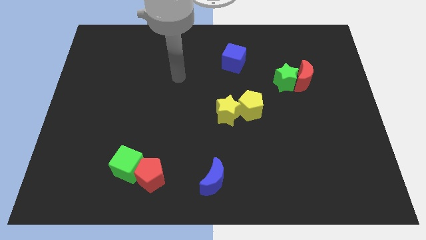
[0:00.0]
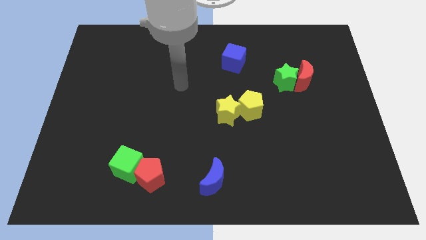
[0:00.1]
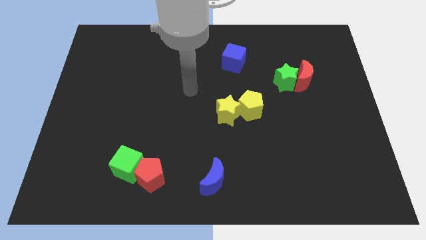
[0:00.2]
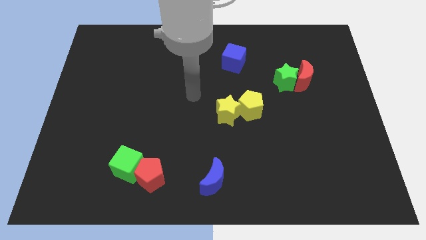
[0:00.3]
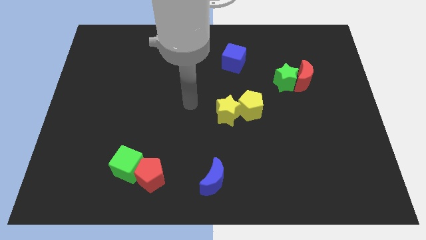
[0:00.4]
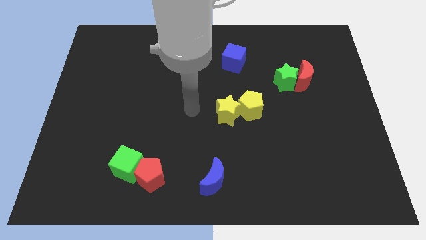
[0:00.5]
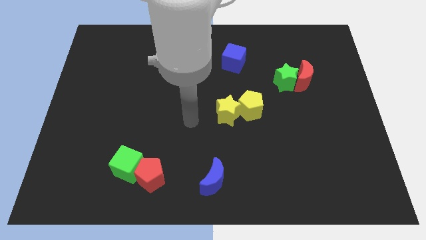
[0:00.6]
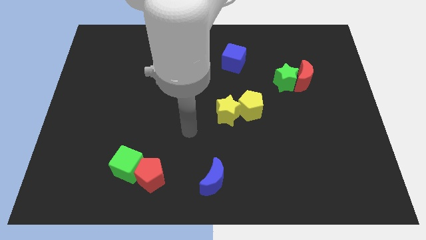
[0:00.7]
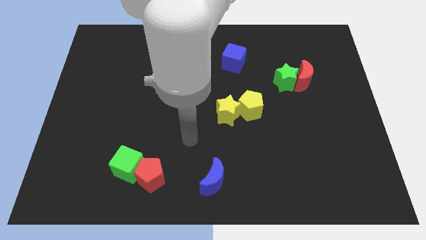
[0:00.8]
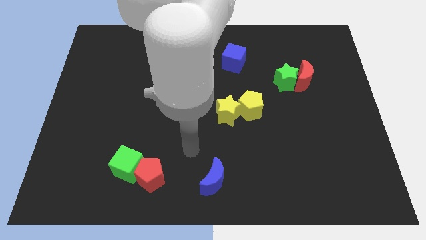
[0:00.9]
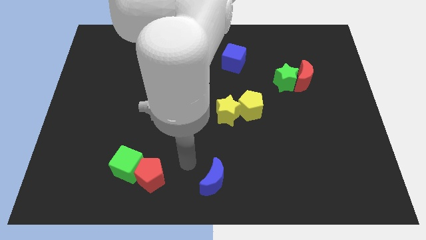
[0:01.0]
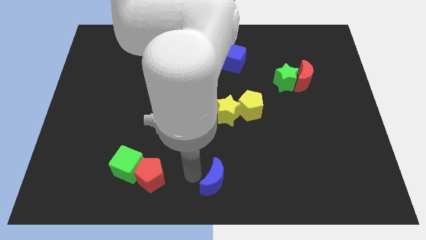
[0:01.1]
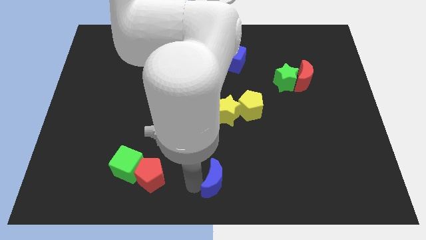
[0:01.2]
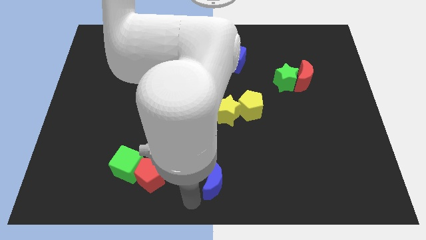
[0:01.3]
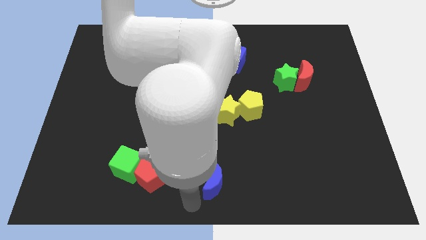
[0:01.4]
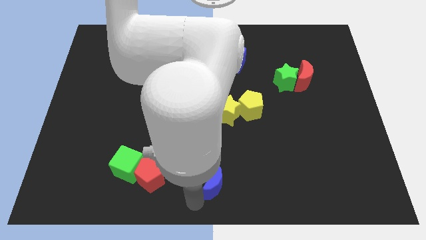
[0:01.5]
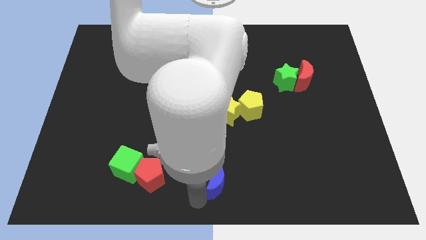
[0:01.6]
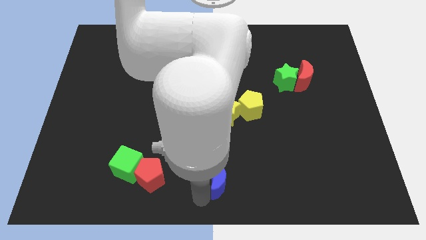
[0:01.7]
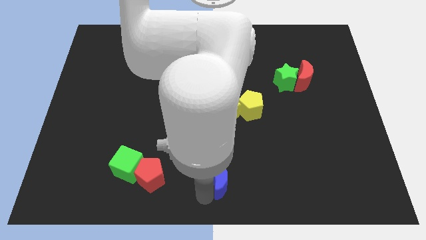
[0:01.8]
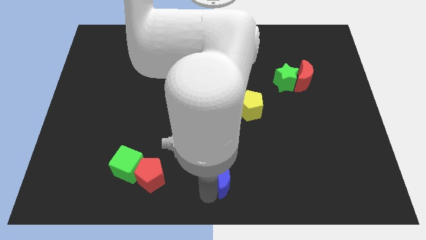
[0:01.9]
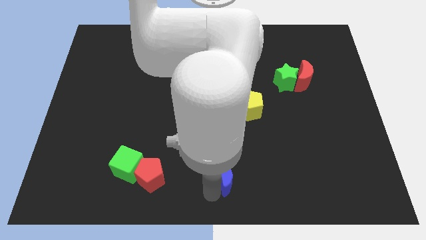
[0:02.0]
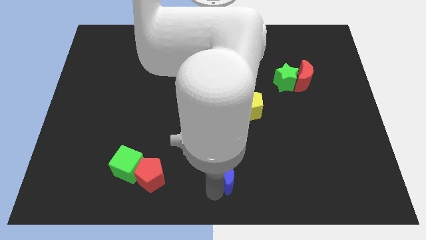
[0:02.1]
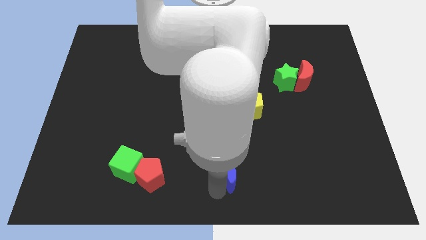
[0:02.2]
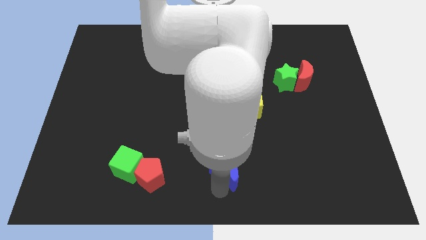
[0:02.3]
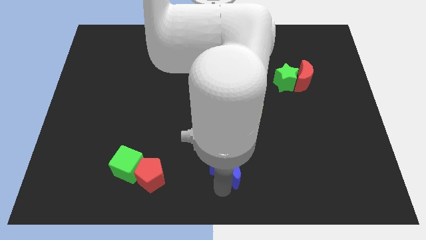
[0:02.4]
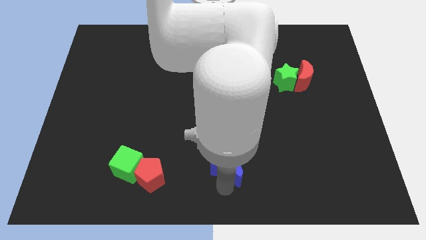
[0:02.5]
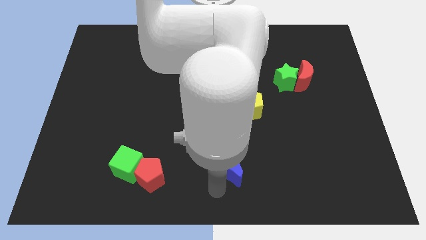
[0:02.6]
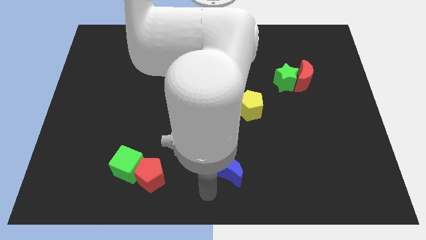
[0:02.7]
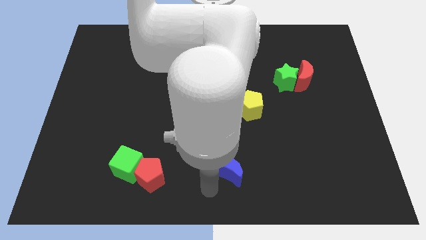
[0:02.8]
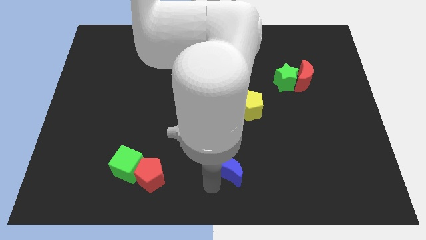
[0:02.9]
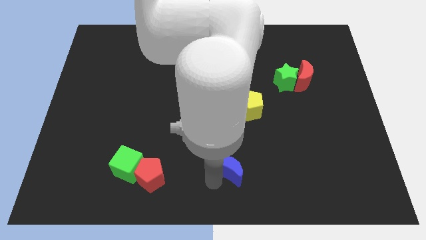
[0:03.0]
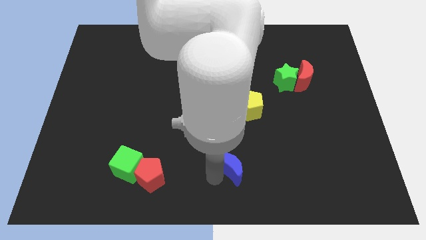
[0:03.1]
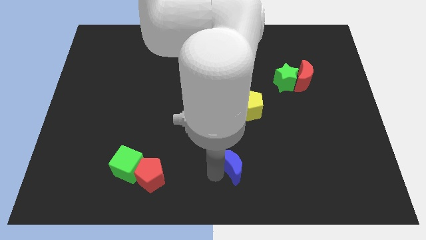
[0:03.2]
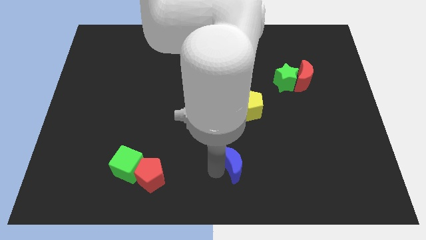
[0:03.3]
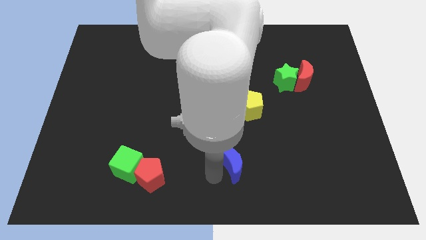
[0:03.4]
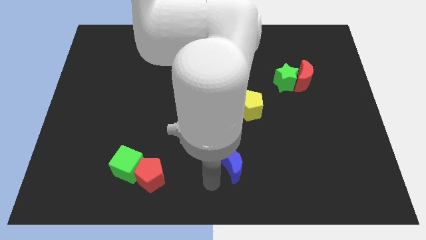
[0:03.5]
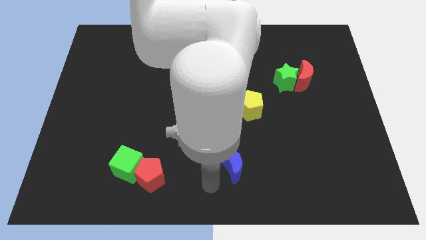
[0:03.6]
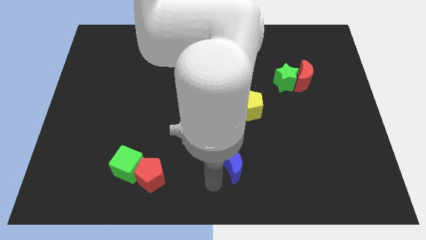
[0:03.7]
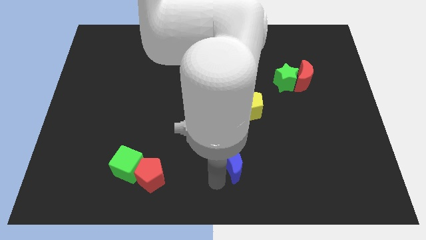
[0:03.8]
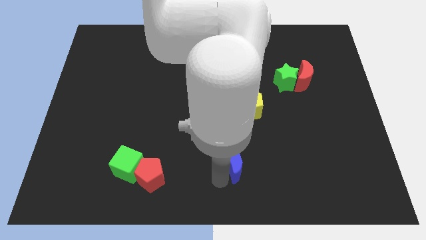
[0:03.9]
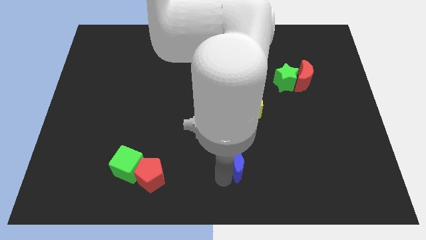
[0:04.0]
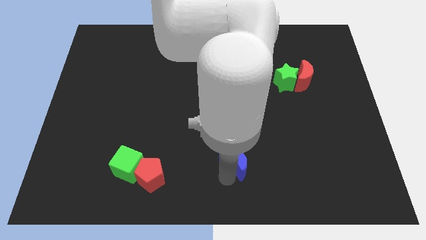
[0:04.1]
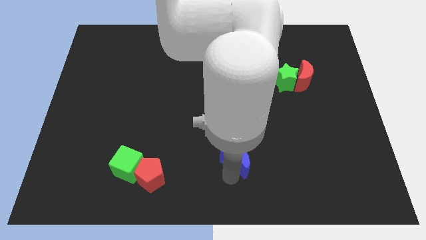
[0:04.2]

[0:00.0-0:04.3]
slide the blue moon below the yellow pentagon

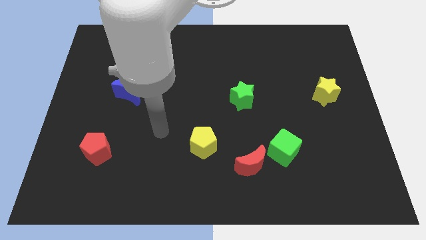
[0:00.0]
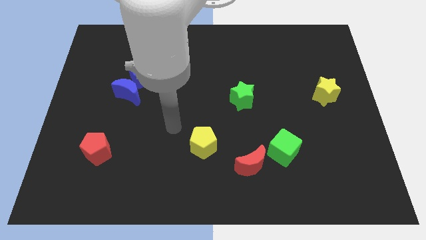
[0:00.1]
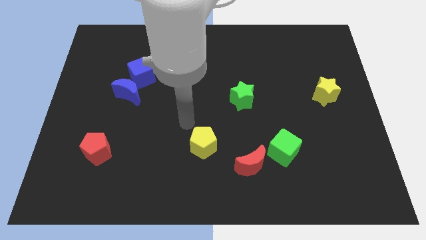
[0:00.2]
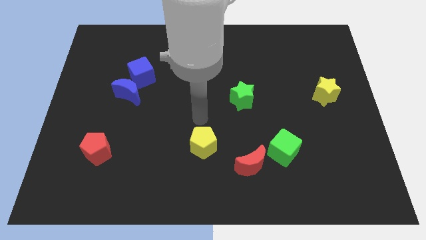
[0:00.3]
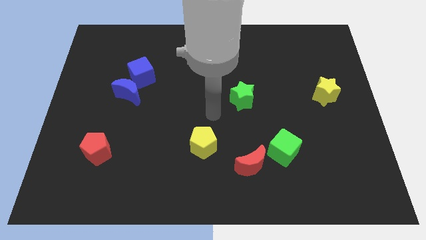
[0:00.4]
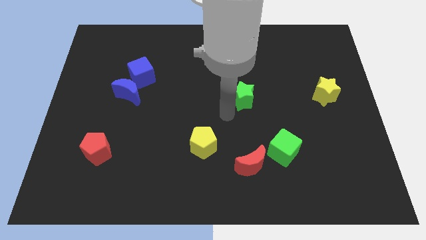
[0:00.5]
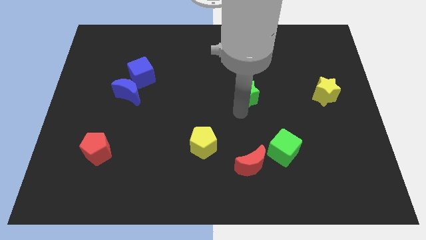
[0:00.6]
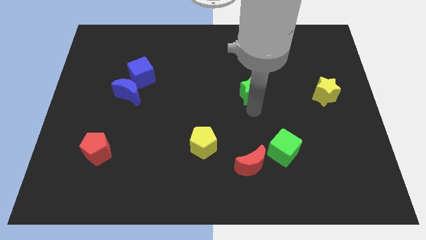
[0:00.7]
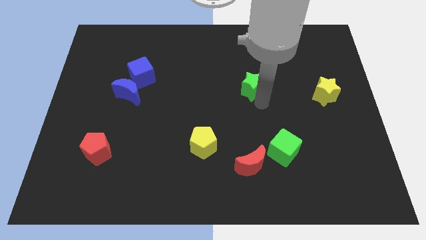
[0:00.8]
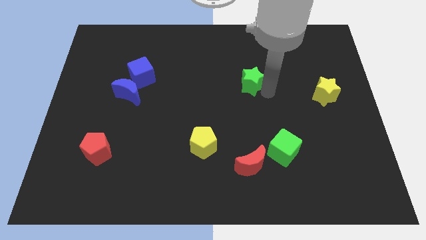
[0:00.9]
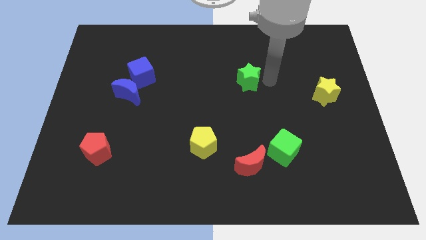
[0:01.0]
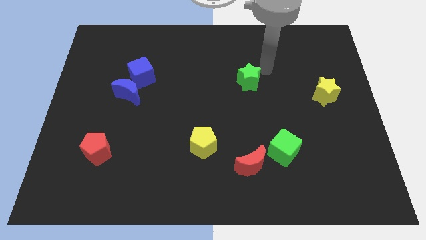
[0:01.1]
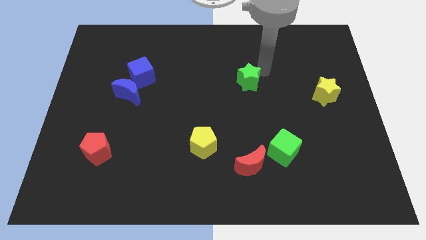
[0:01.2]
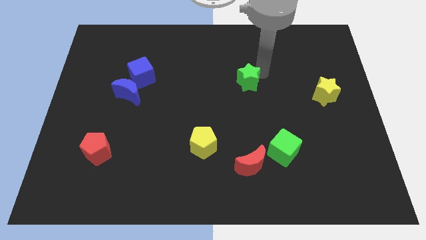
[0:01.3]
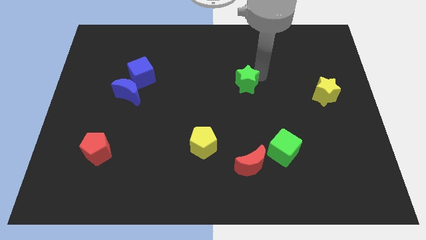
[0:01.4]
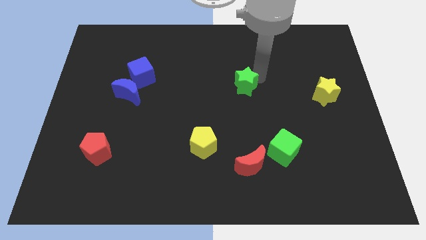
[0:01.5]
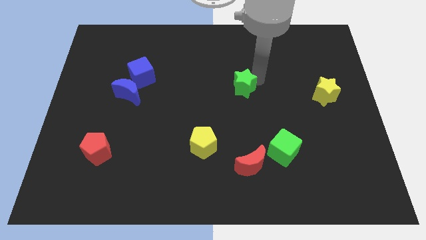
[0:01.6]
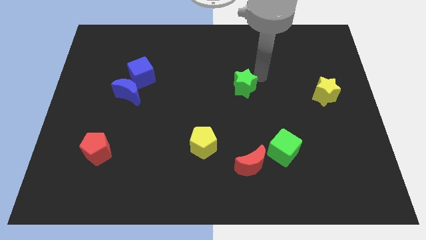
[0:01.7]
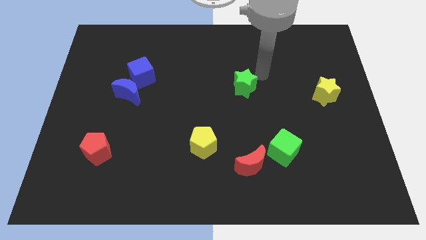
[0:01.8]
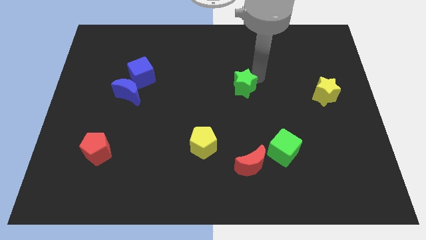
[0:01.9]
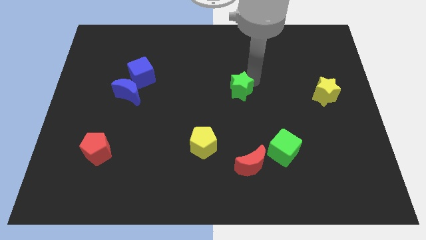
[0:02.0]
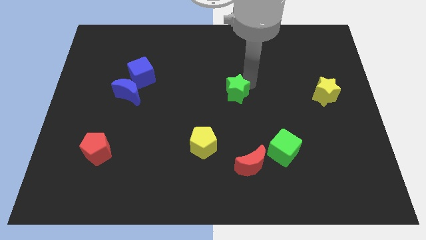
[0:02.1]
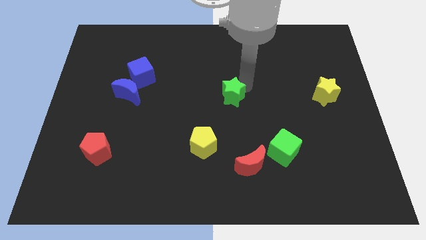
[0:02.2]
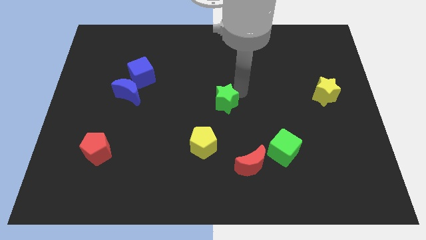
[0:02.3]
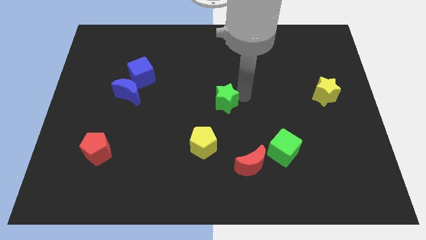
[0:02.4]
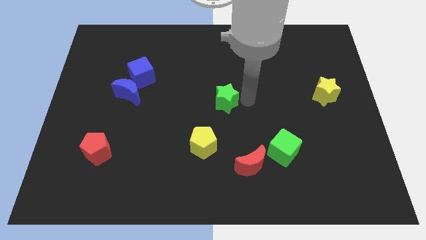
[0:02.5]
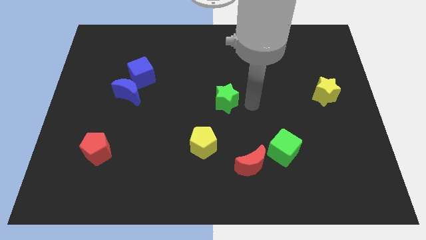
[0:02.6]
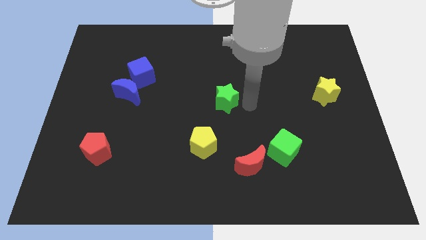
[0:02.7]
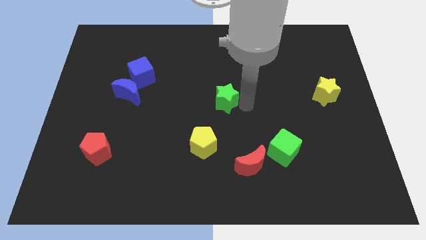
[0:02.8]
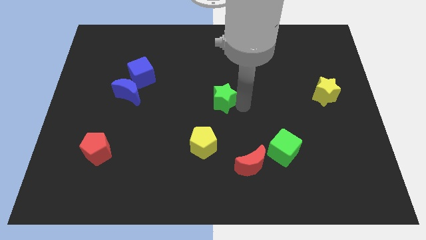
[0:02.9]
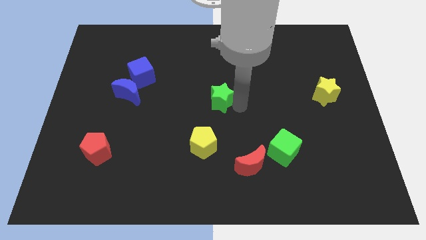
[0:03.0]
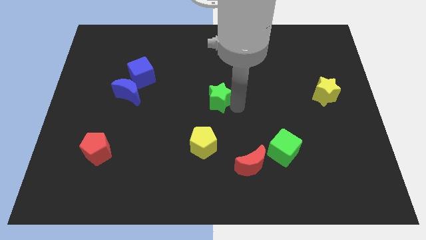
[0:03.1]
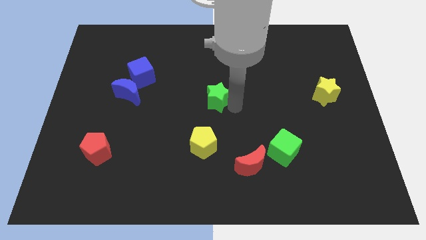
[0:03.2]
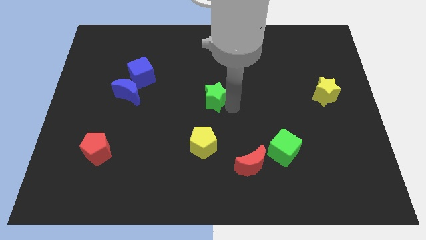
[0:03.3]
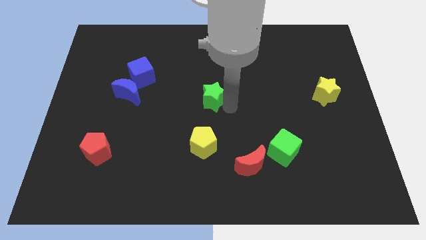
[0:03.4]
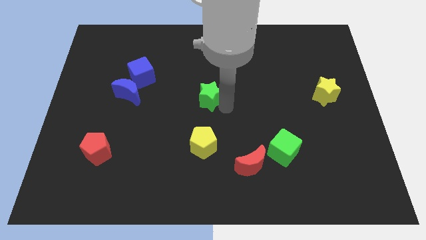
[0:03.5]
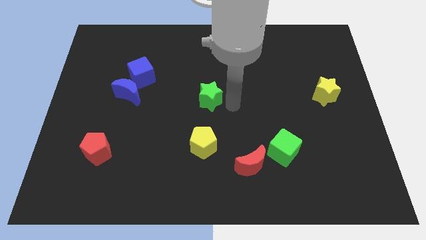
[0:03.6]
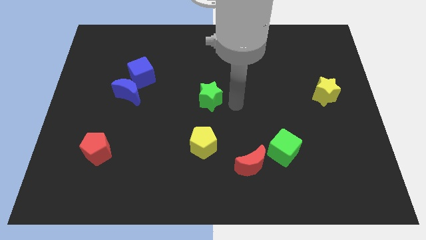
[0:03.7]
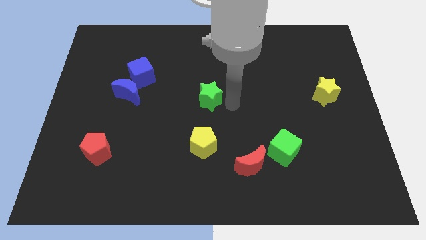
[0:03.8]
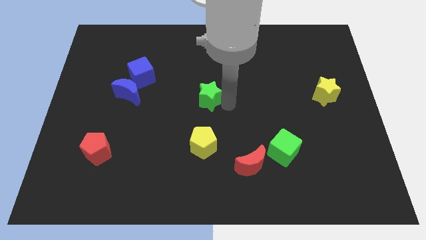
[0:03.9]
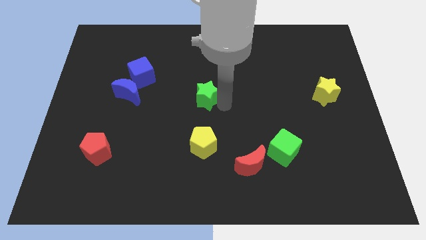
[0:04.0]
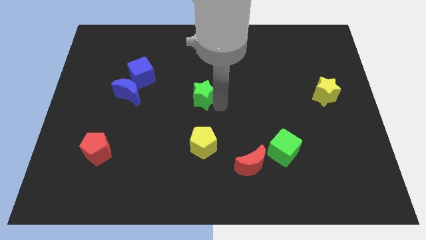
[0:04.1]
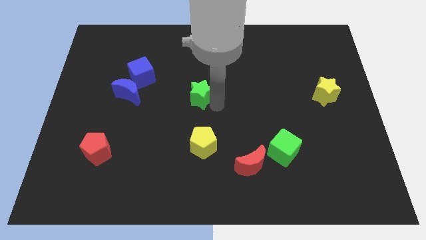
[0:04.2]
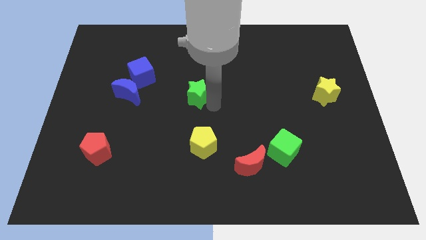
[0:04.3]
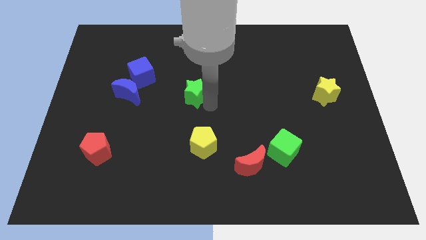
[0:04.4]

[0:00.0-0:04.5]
put the green star right of the blue moon
